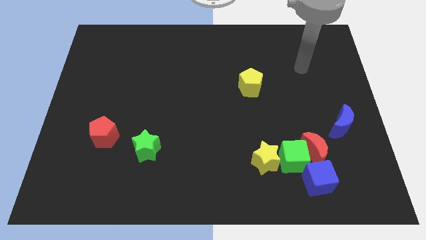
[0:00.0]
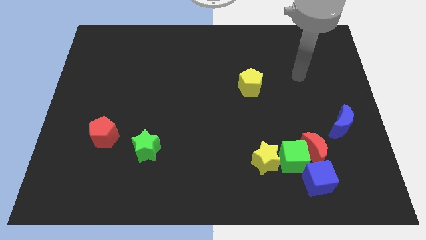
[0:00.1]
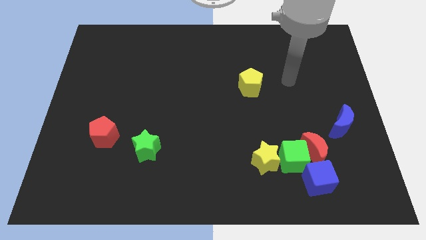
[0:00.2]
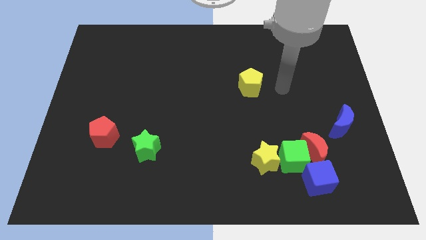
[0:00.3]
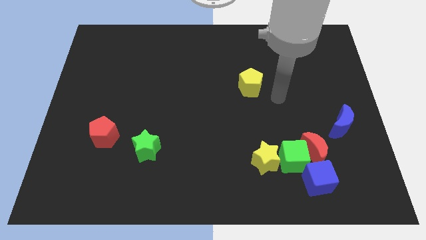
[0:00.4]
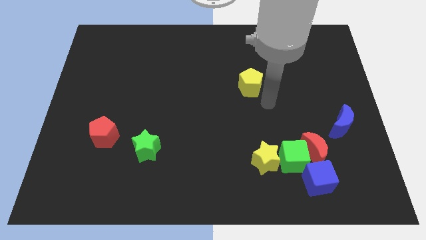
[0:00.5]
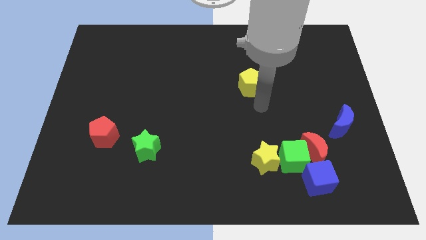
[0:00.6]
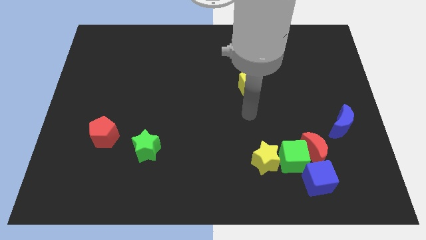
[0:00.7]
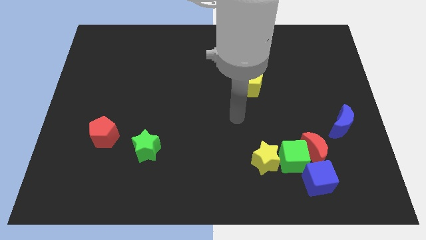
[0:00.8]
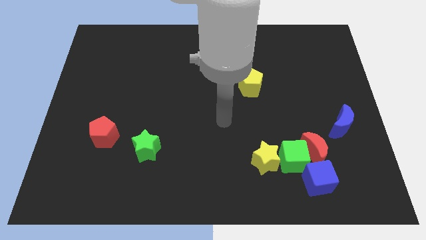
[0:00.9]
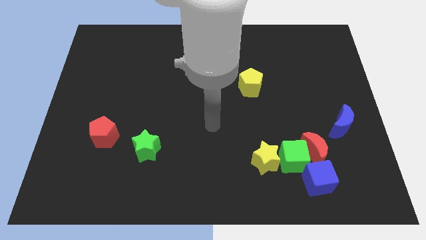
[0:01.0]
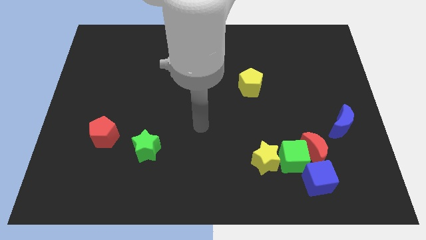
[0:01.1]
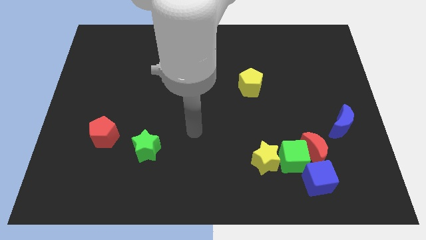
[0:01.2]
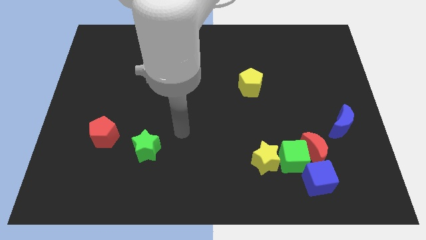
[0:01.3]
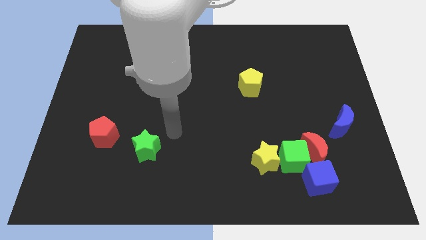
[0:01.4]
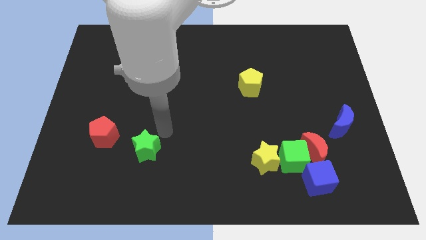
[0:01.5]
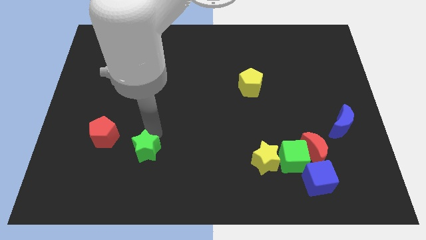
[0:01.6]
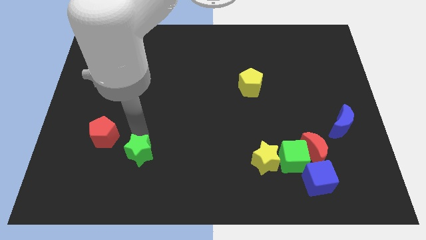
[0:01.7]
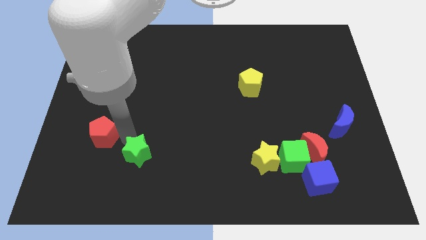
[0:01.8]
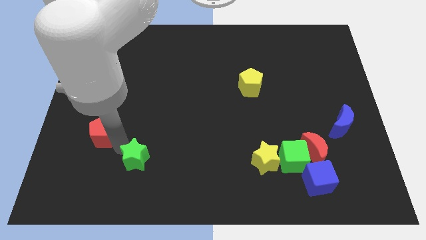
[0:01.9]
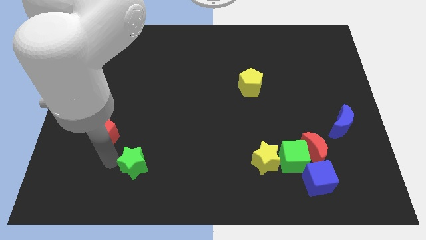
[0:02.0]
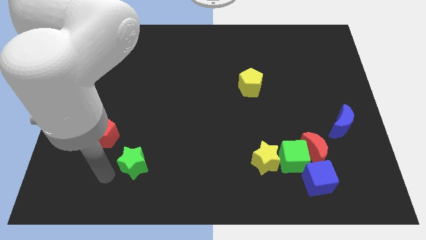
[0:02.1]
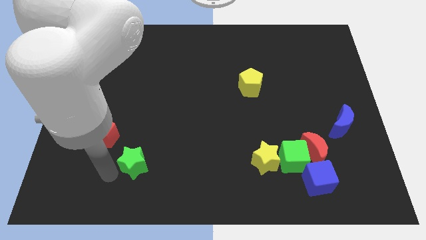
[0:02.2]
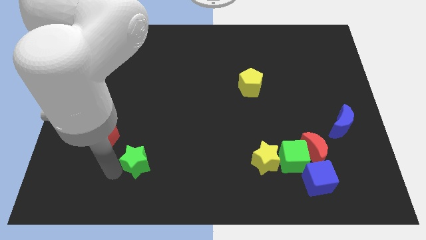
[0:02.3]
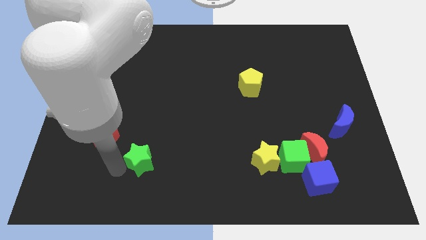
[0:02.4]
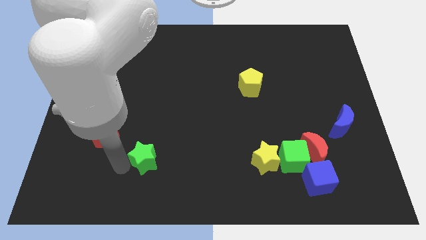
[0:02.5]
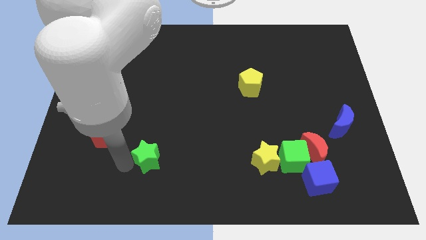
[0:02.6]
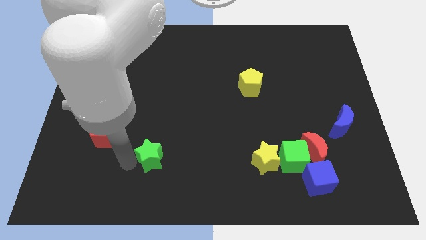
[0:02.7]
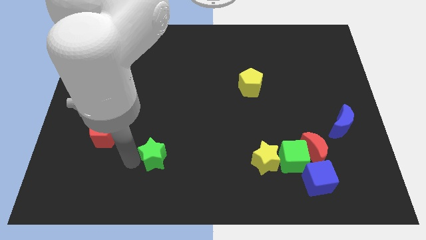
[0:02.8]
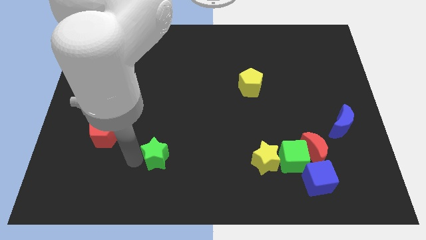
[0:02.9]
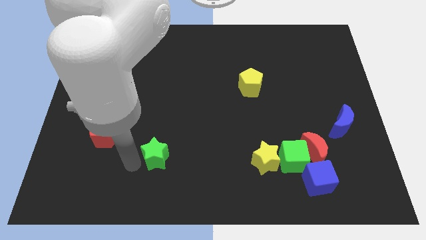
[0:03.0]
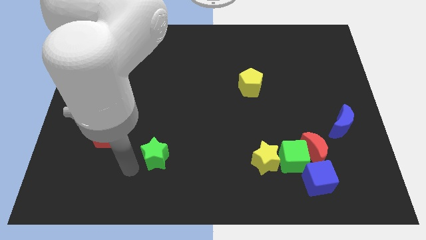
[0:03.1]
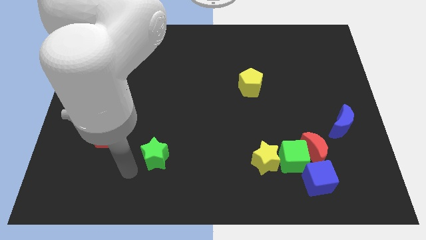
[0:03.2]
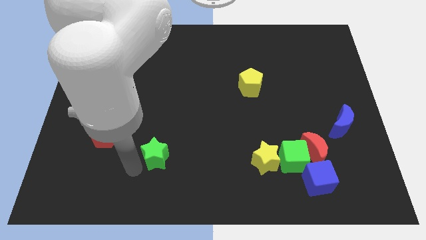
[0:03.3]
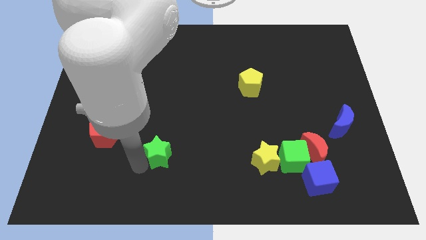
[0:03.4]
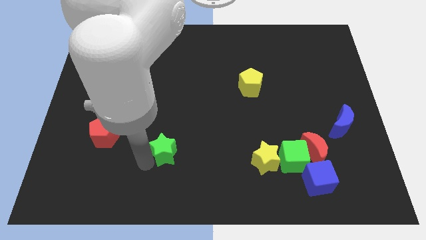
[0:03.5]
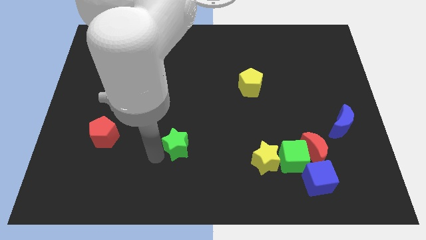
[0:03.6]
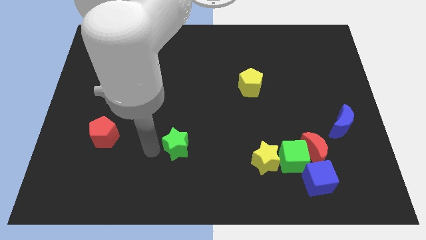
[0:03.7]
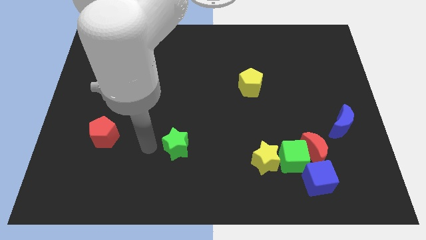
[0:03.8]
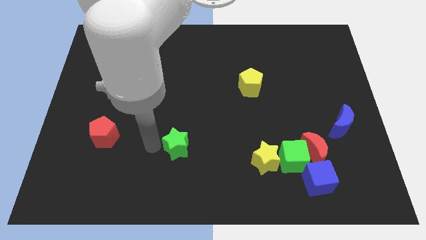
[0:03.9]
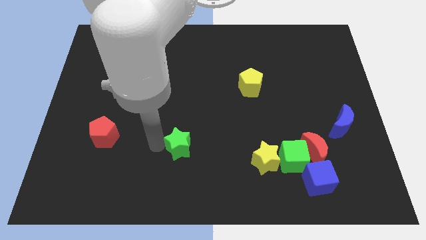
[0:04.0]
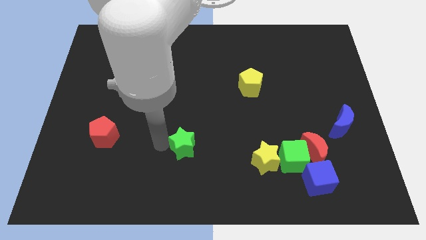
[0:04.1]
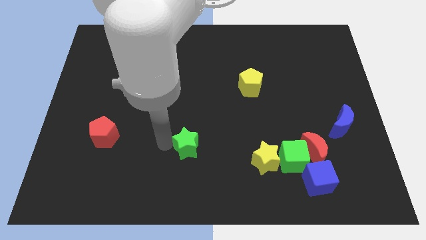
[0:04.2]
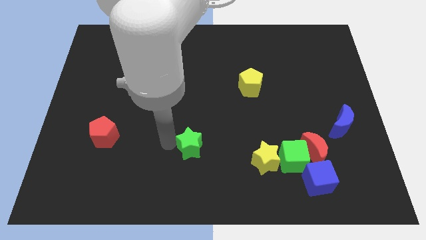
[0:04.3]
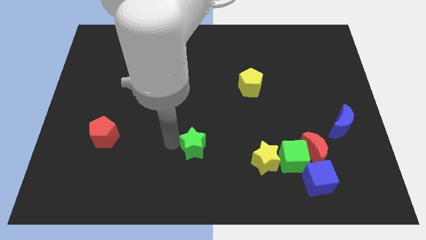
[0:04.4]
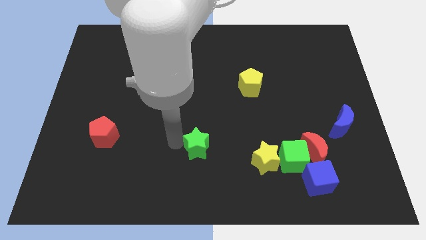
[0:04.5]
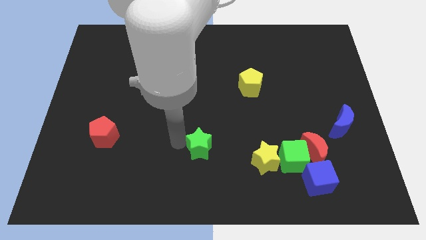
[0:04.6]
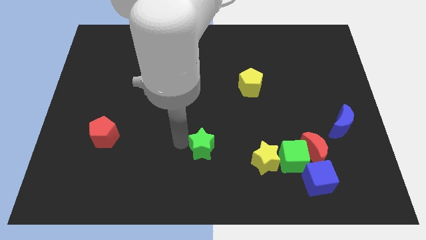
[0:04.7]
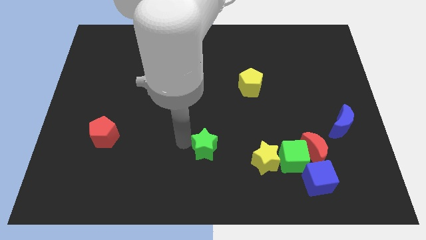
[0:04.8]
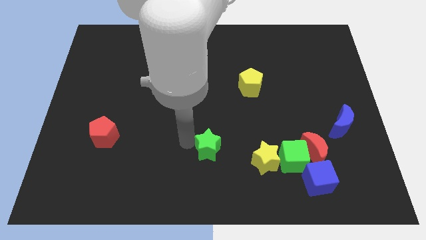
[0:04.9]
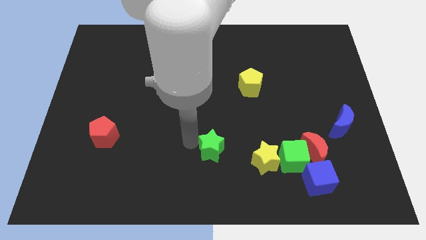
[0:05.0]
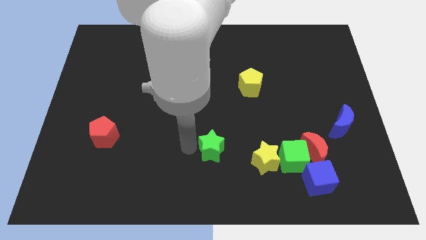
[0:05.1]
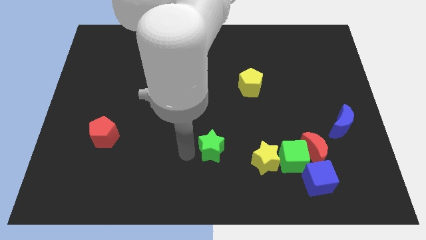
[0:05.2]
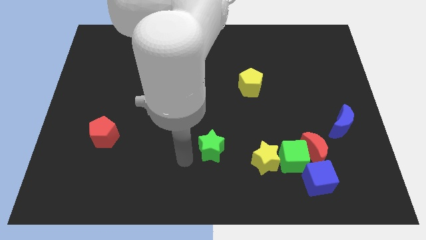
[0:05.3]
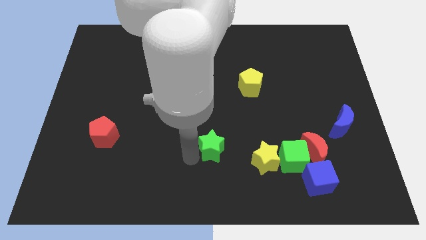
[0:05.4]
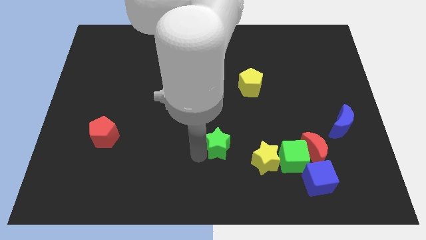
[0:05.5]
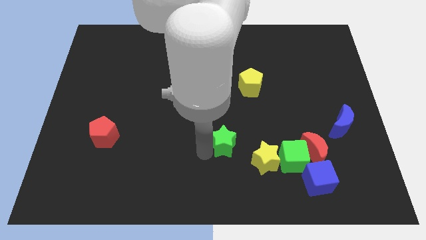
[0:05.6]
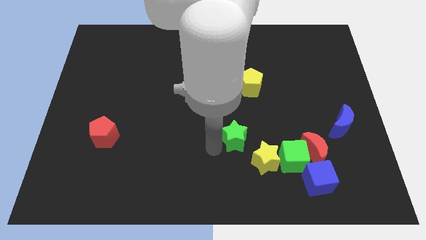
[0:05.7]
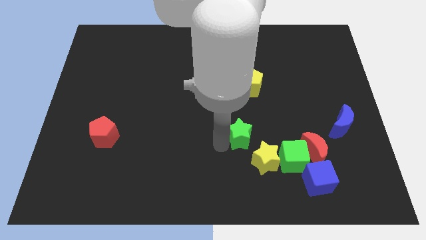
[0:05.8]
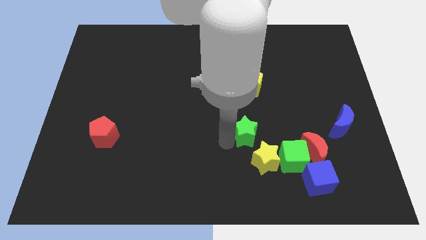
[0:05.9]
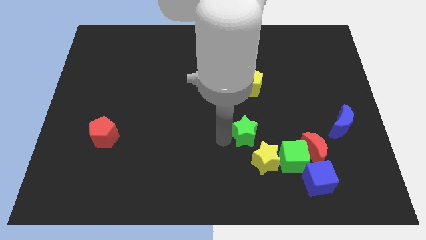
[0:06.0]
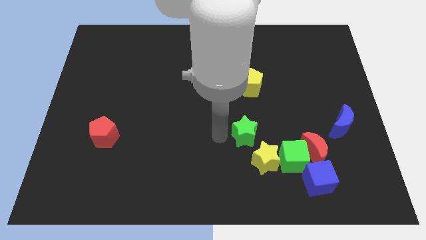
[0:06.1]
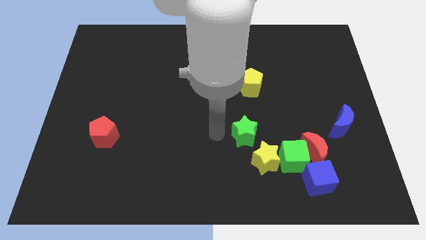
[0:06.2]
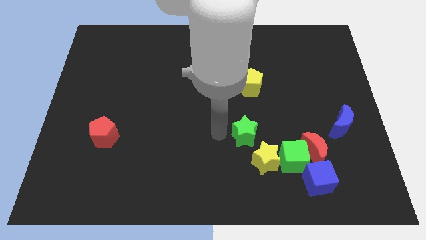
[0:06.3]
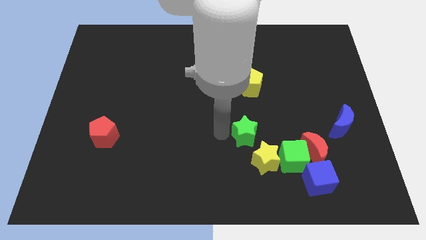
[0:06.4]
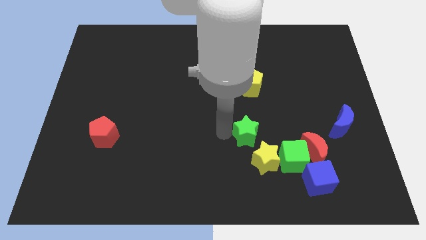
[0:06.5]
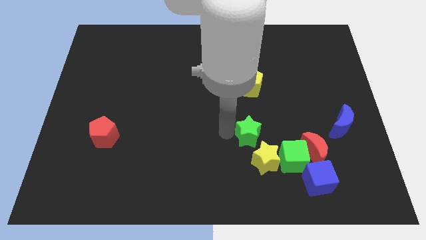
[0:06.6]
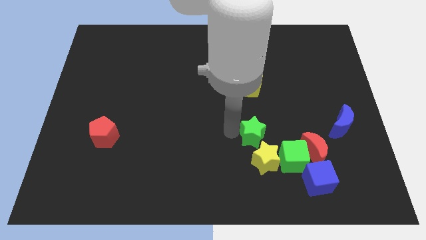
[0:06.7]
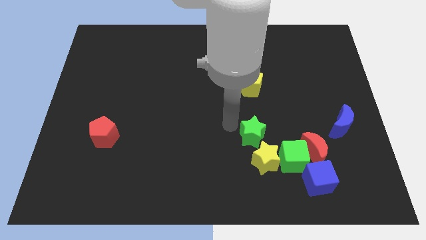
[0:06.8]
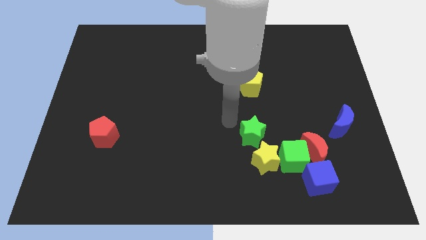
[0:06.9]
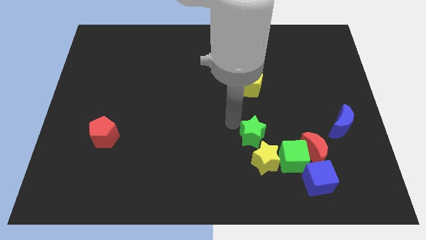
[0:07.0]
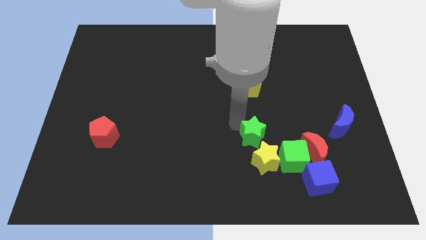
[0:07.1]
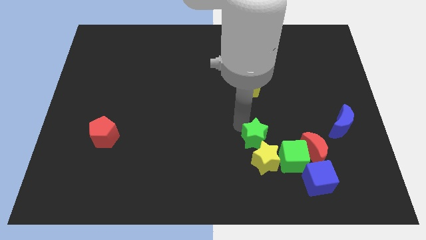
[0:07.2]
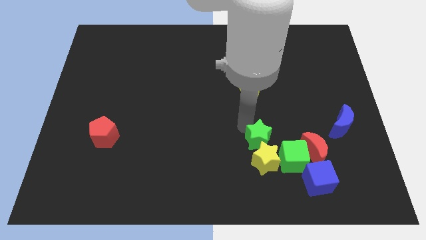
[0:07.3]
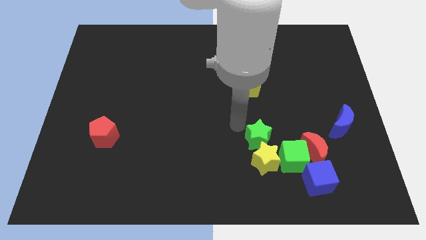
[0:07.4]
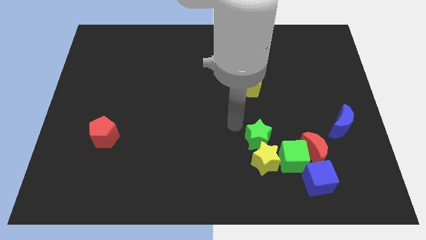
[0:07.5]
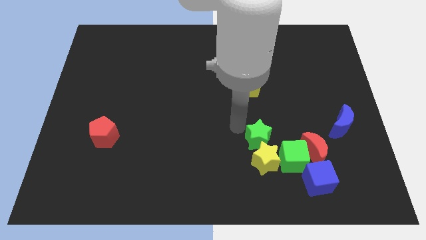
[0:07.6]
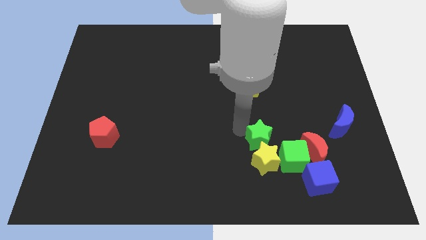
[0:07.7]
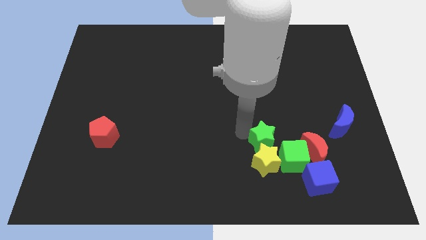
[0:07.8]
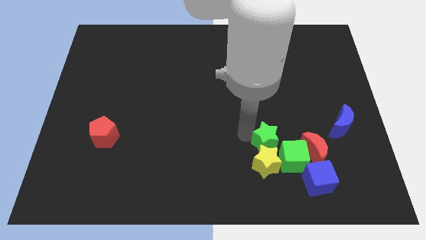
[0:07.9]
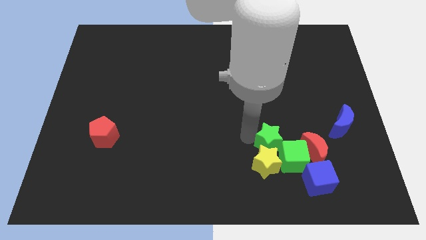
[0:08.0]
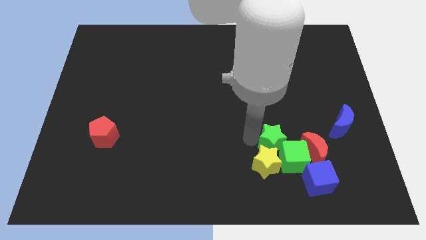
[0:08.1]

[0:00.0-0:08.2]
move the green star to the green cube
